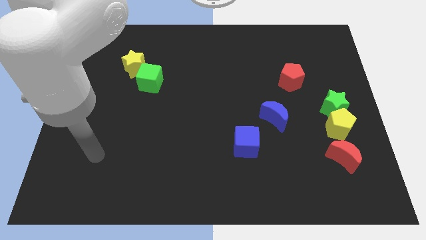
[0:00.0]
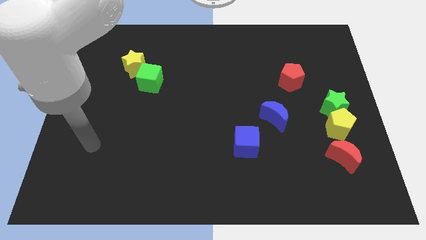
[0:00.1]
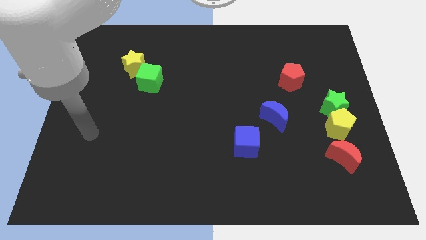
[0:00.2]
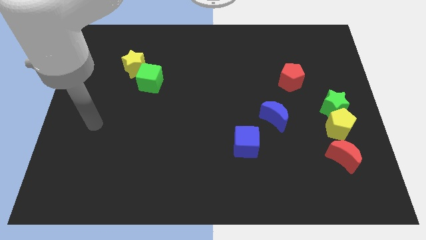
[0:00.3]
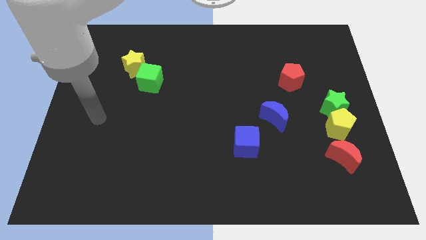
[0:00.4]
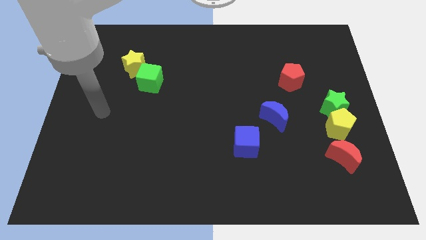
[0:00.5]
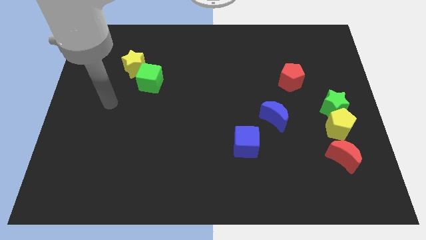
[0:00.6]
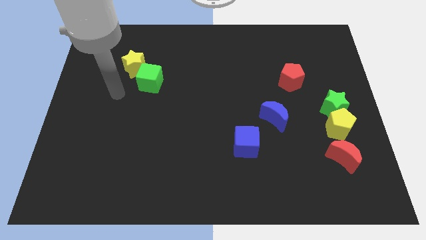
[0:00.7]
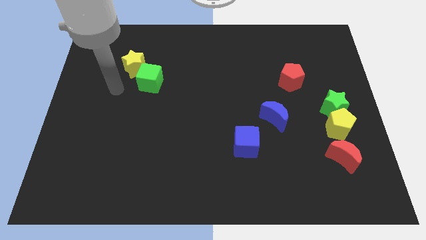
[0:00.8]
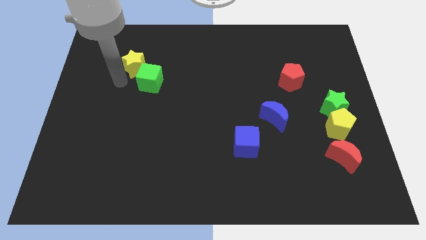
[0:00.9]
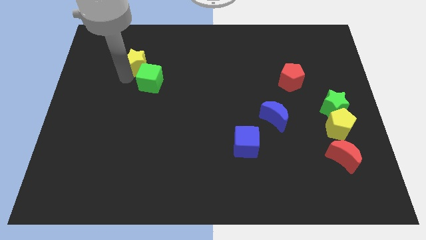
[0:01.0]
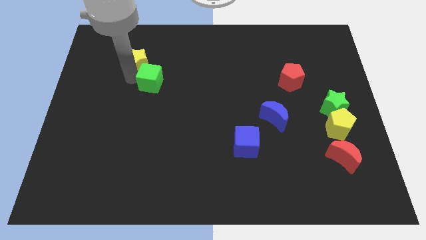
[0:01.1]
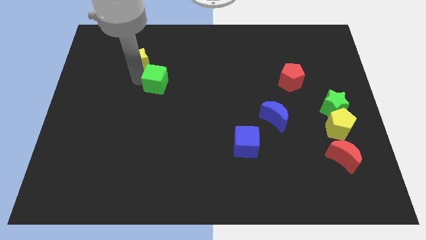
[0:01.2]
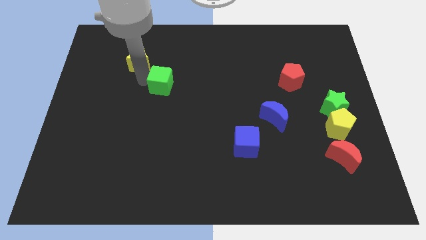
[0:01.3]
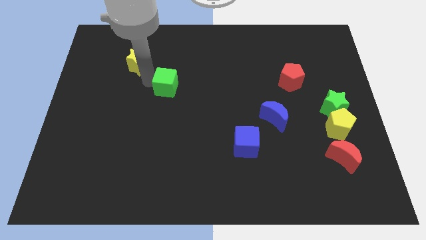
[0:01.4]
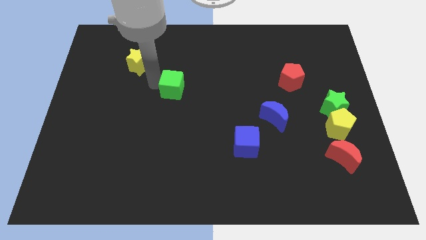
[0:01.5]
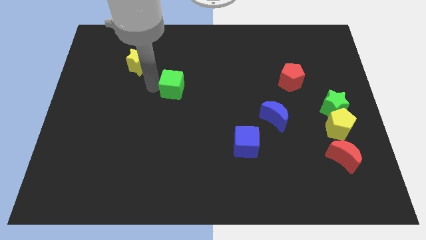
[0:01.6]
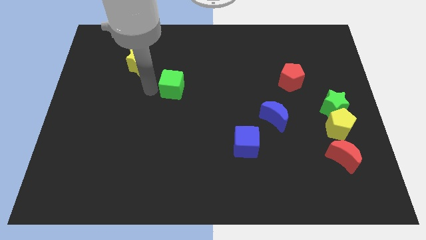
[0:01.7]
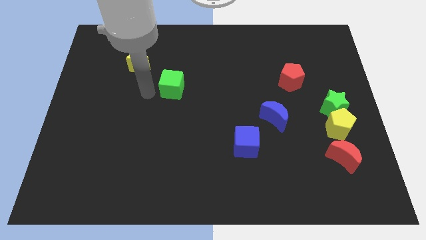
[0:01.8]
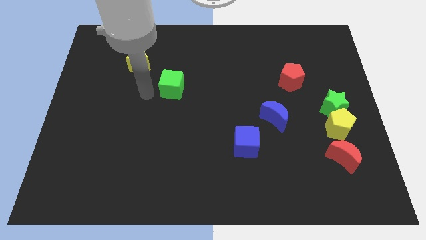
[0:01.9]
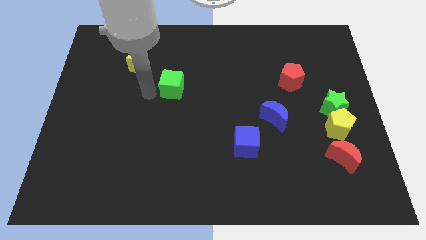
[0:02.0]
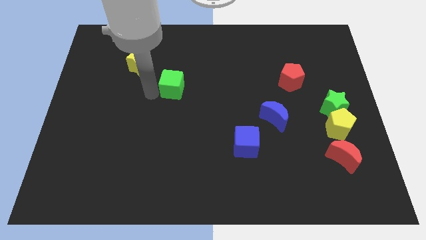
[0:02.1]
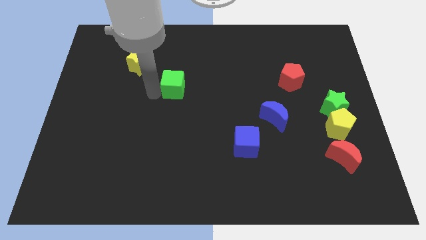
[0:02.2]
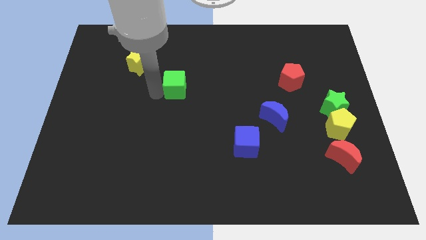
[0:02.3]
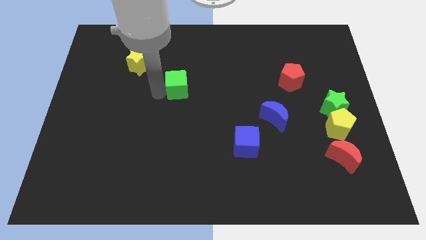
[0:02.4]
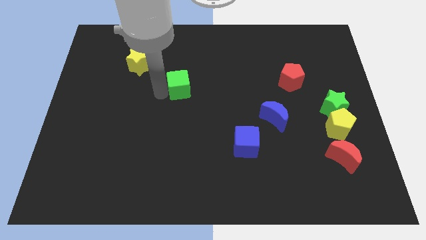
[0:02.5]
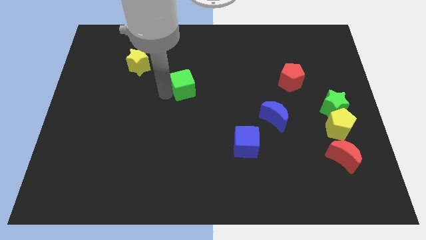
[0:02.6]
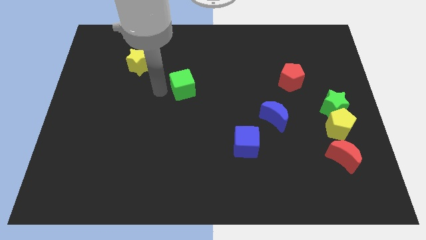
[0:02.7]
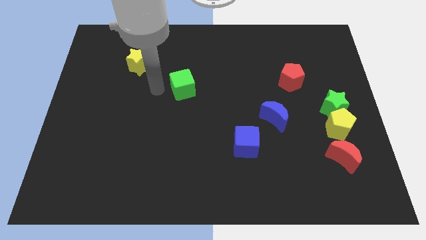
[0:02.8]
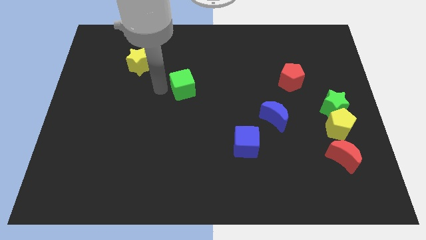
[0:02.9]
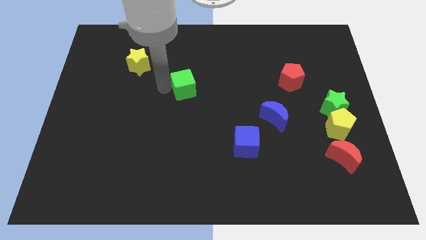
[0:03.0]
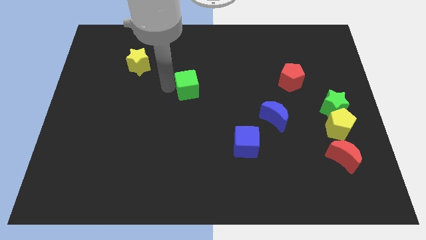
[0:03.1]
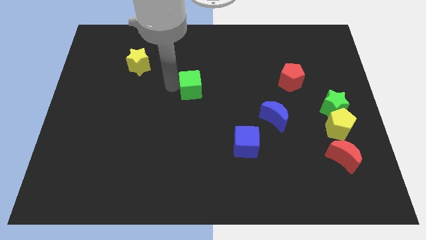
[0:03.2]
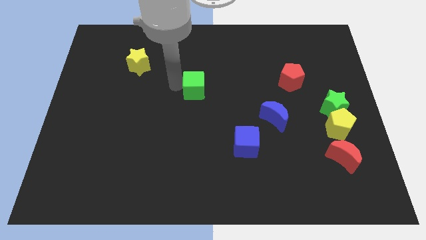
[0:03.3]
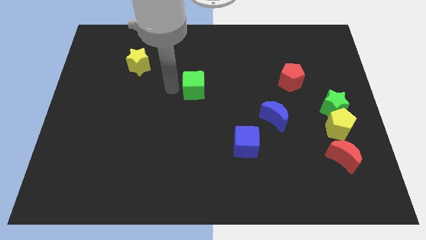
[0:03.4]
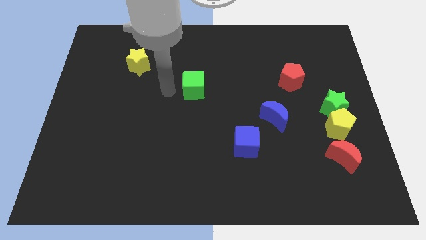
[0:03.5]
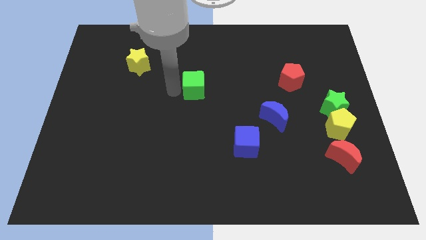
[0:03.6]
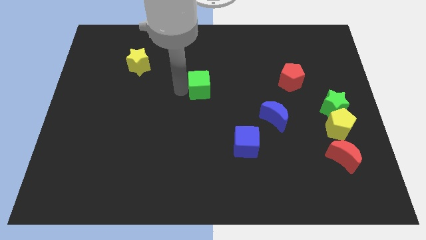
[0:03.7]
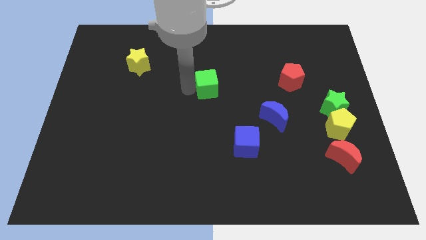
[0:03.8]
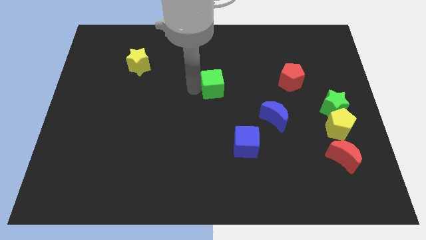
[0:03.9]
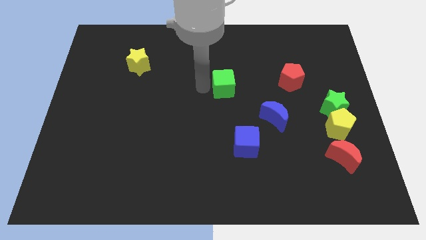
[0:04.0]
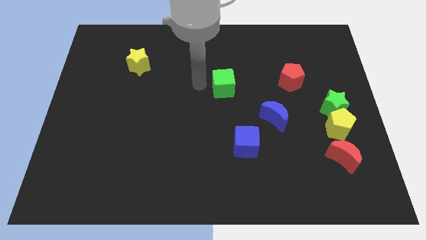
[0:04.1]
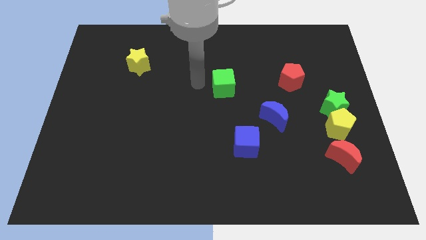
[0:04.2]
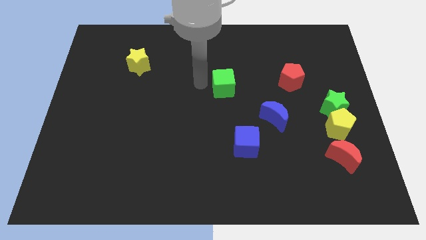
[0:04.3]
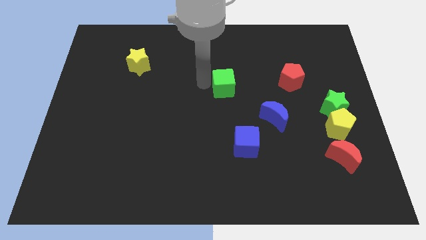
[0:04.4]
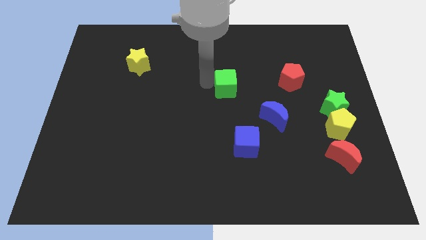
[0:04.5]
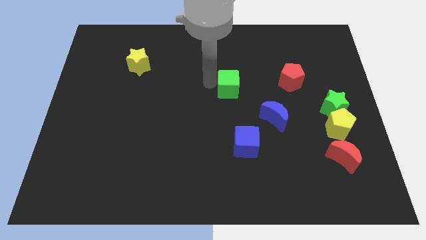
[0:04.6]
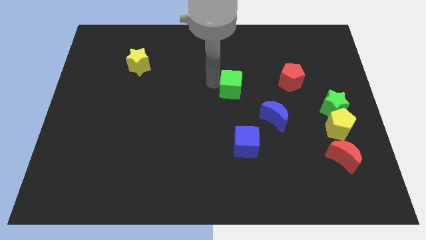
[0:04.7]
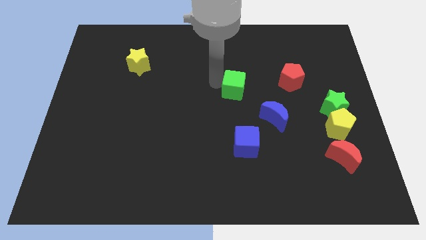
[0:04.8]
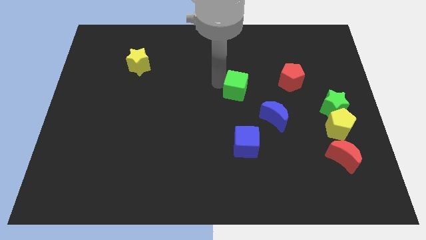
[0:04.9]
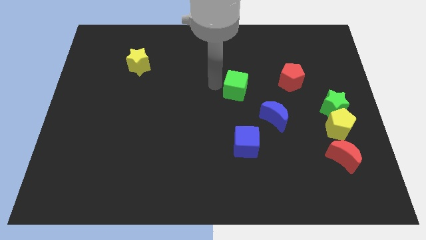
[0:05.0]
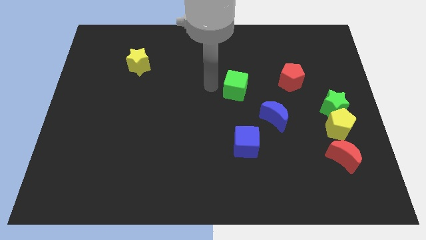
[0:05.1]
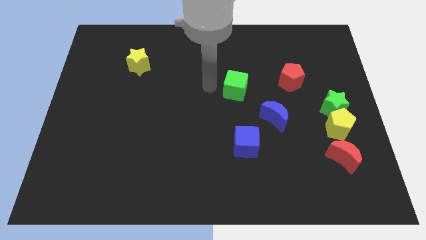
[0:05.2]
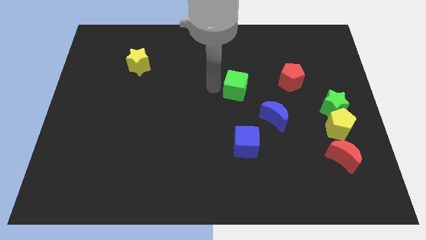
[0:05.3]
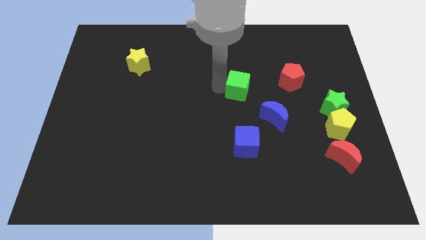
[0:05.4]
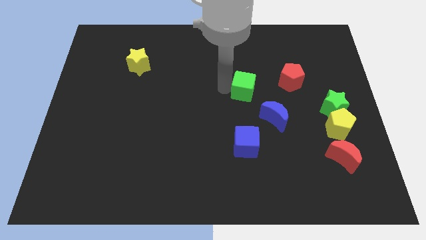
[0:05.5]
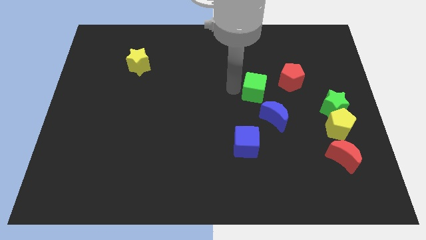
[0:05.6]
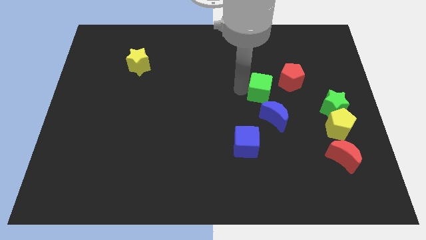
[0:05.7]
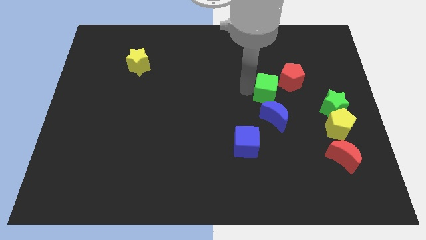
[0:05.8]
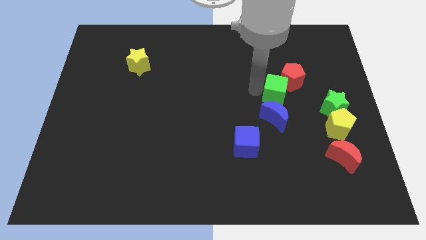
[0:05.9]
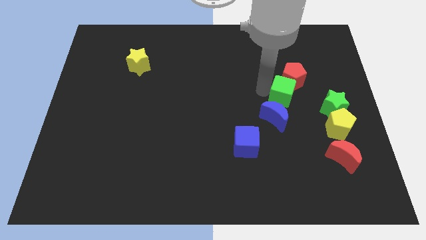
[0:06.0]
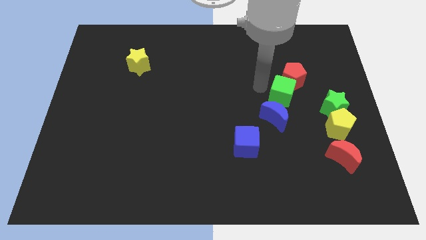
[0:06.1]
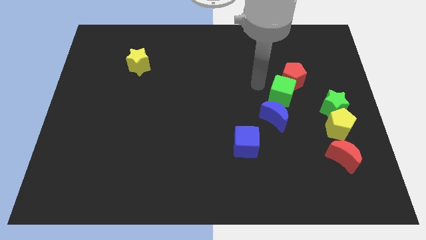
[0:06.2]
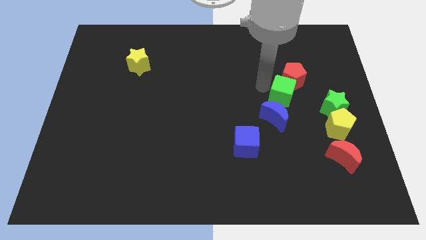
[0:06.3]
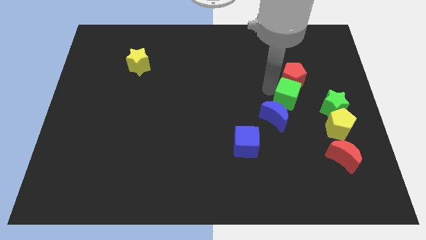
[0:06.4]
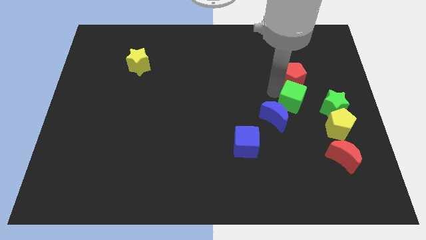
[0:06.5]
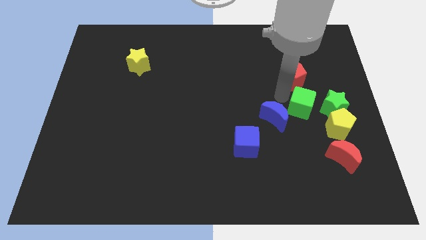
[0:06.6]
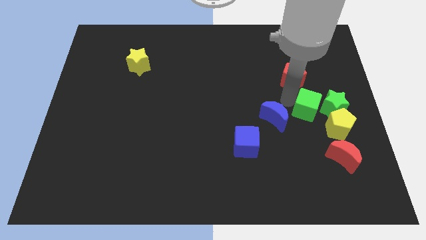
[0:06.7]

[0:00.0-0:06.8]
put the green cube towards the green star

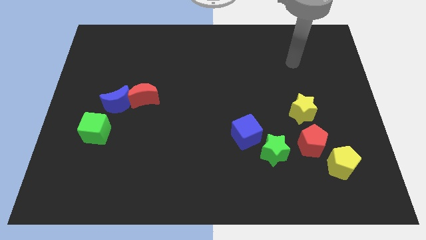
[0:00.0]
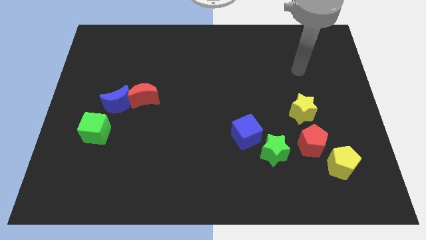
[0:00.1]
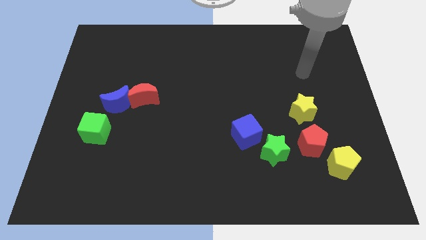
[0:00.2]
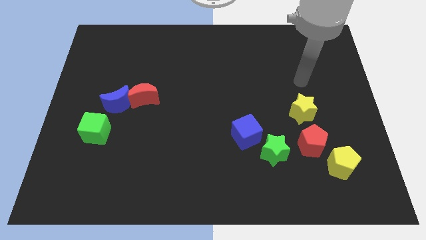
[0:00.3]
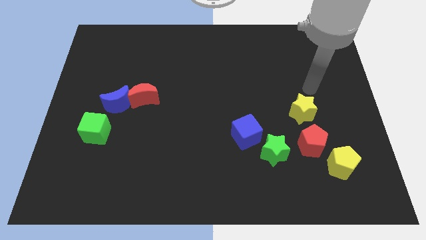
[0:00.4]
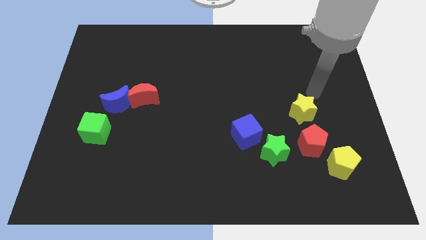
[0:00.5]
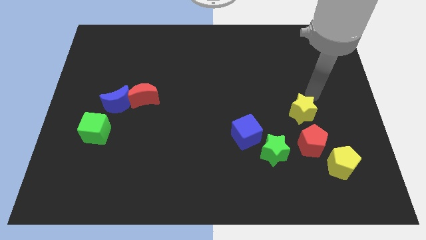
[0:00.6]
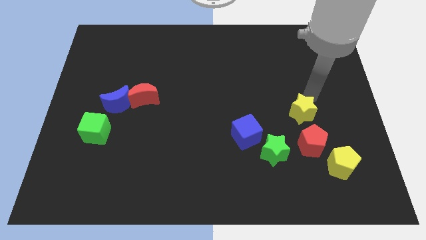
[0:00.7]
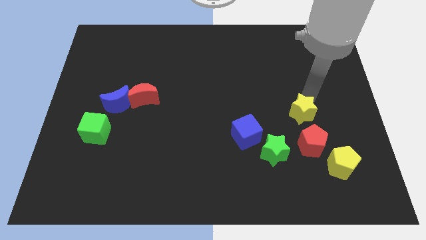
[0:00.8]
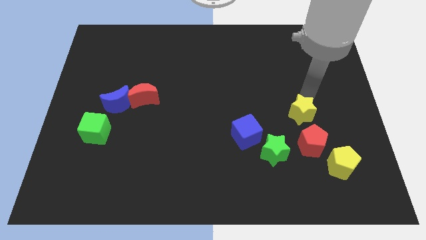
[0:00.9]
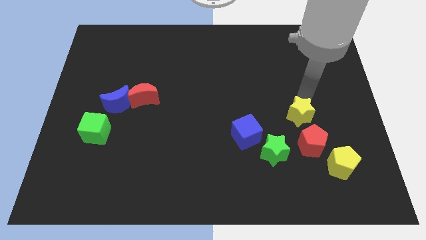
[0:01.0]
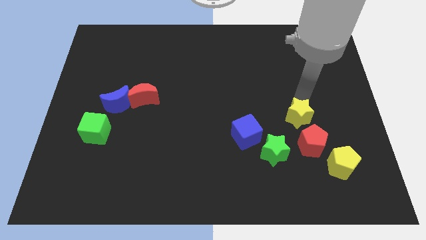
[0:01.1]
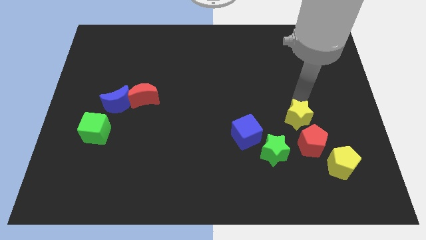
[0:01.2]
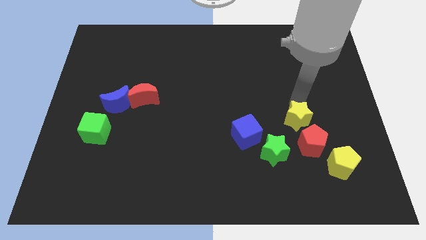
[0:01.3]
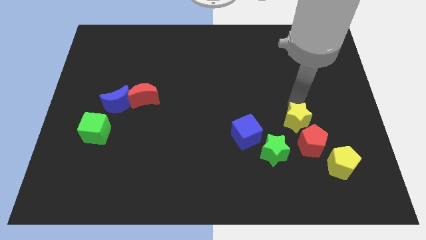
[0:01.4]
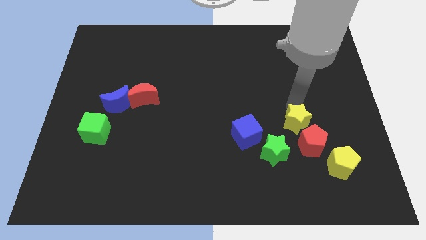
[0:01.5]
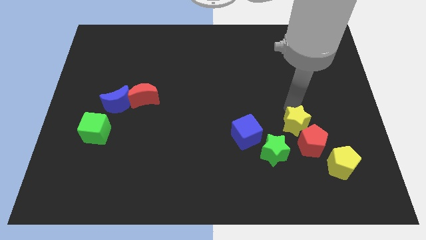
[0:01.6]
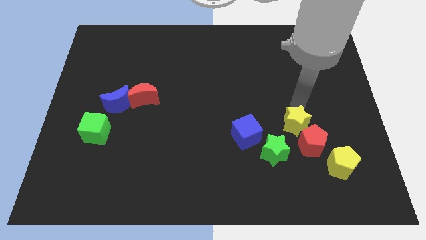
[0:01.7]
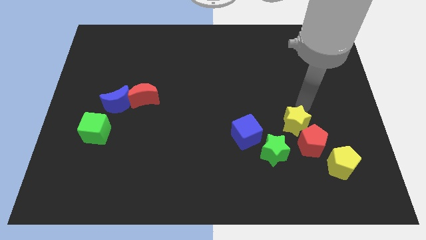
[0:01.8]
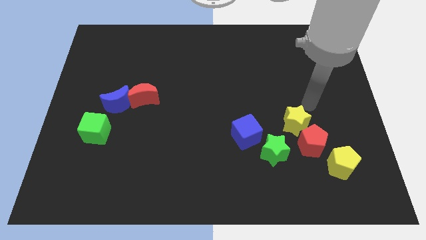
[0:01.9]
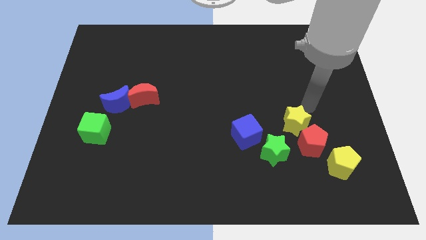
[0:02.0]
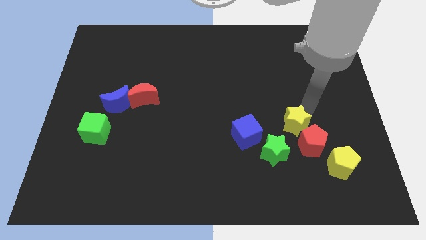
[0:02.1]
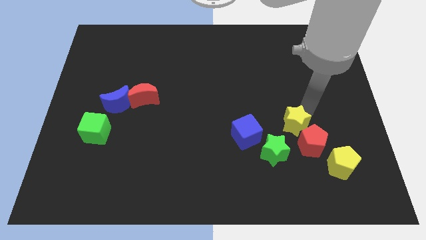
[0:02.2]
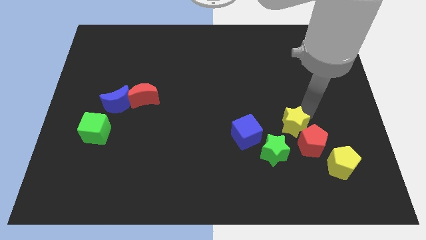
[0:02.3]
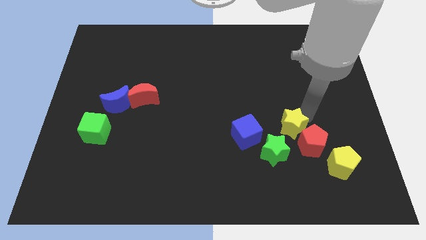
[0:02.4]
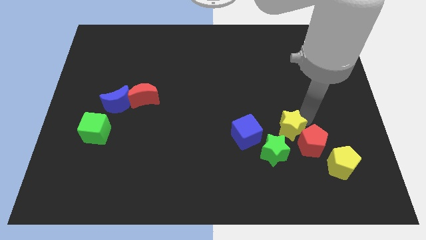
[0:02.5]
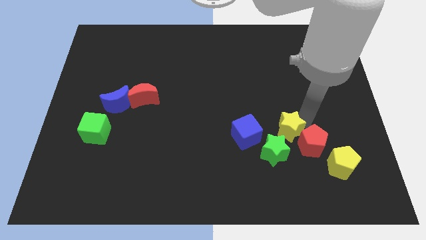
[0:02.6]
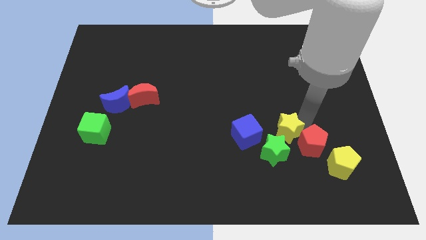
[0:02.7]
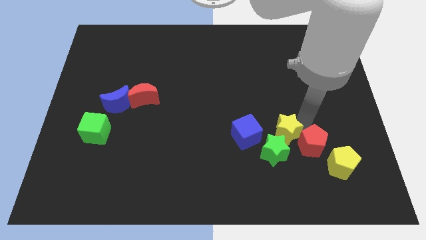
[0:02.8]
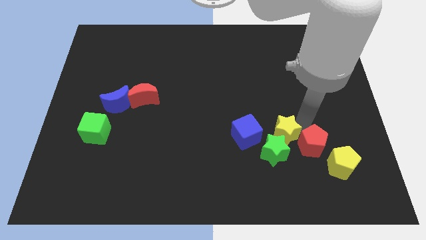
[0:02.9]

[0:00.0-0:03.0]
move the yellow star towards the green star
